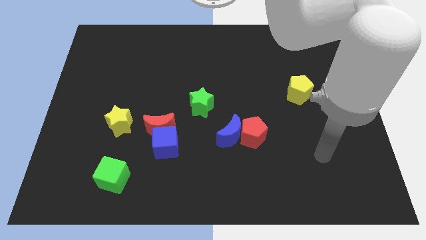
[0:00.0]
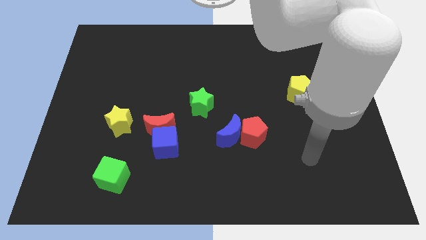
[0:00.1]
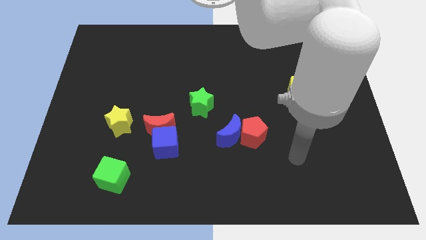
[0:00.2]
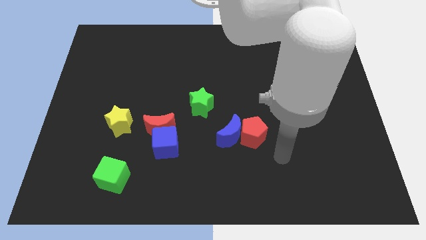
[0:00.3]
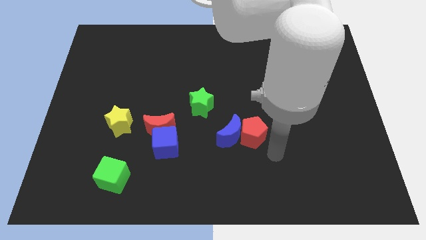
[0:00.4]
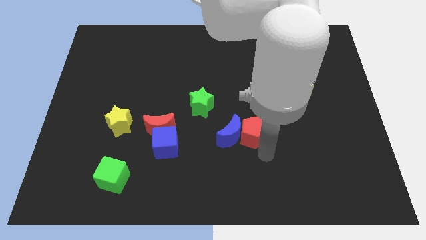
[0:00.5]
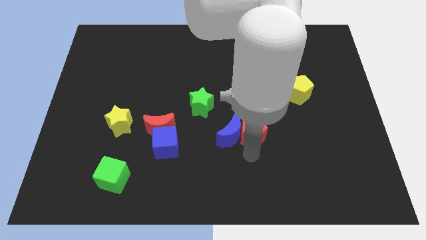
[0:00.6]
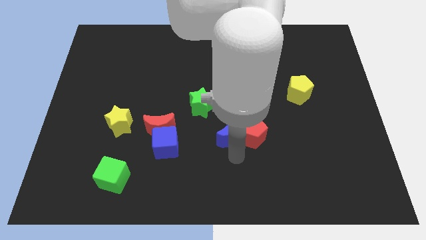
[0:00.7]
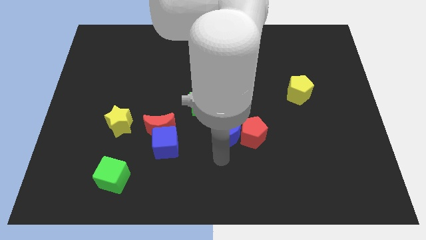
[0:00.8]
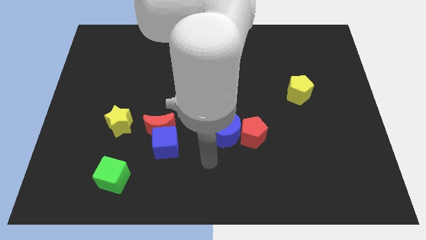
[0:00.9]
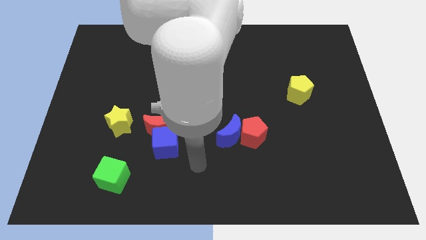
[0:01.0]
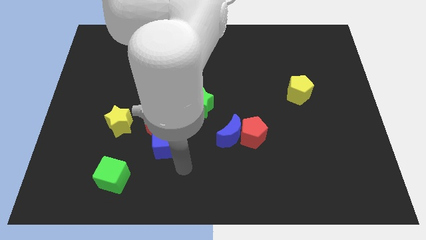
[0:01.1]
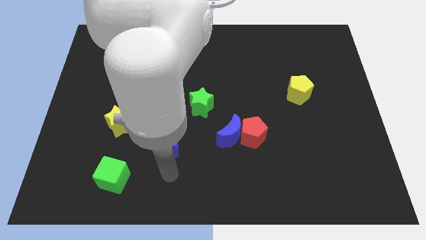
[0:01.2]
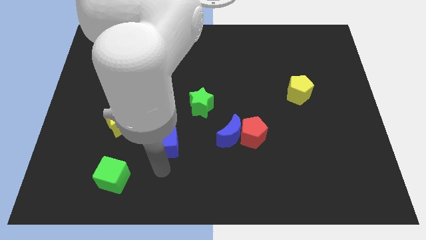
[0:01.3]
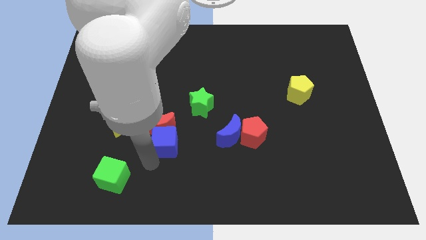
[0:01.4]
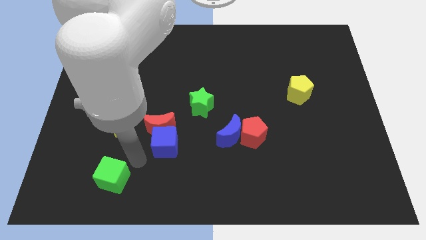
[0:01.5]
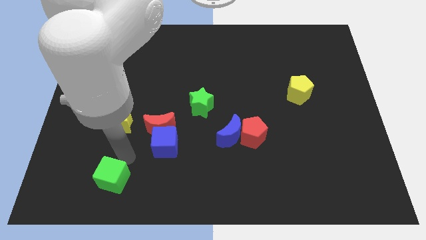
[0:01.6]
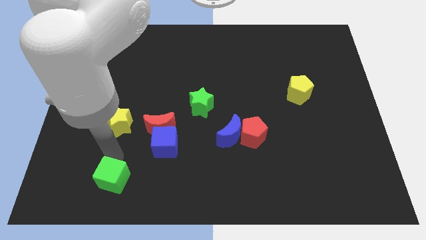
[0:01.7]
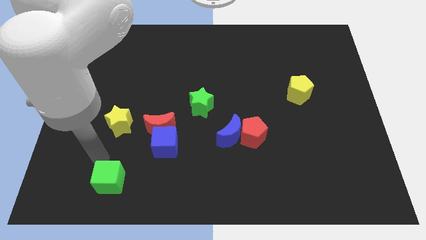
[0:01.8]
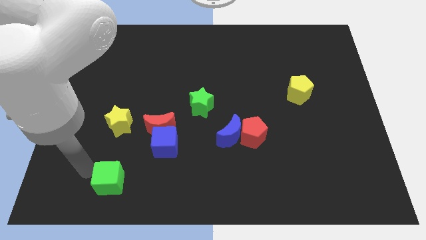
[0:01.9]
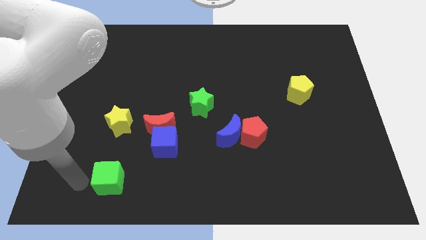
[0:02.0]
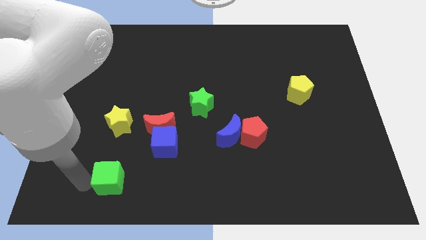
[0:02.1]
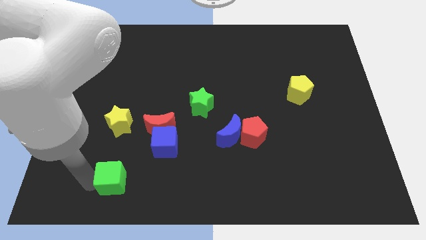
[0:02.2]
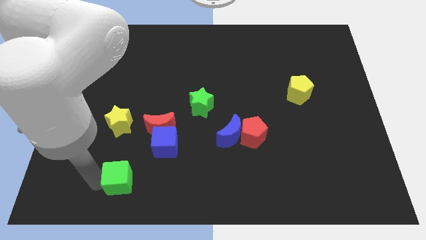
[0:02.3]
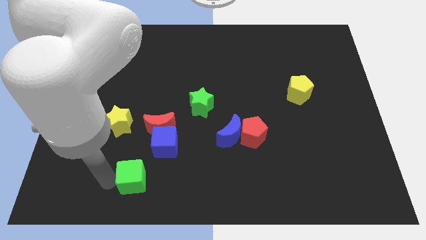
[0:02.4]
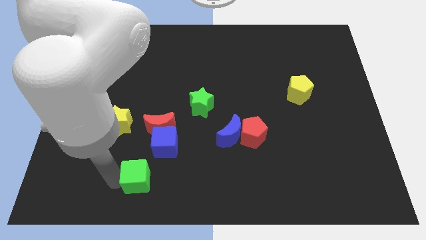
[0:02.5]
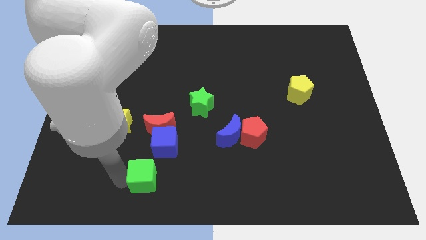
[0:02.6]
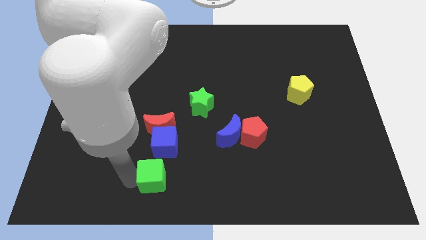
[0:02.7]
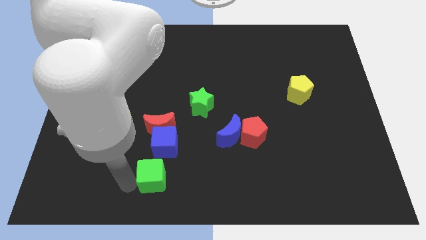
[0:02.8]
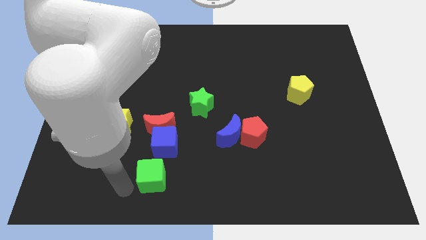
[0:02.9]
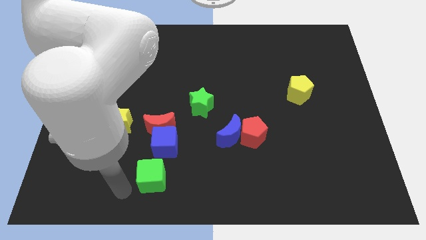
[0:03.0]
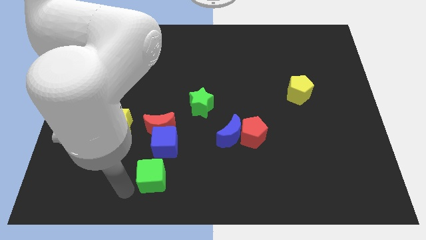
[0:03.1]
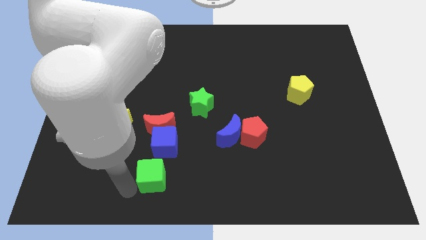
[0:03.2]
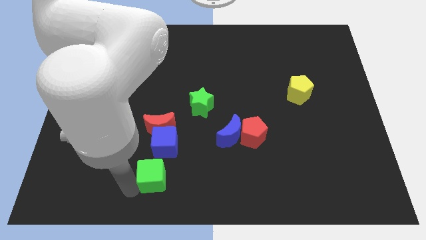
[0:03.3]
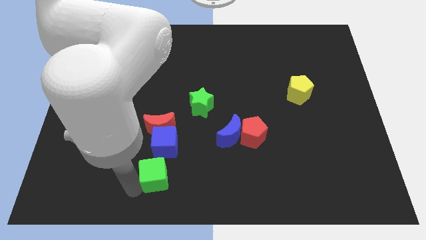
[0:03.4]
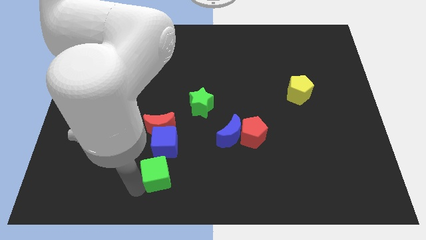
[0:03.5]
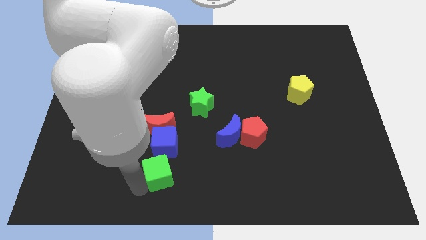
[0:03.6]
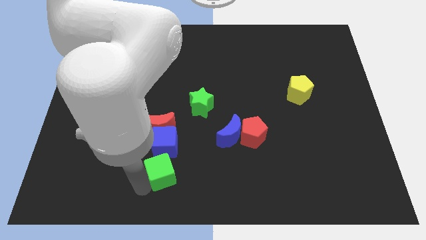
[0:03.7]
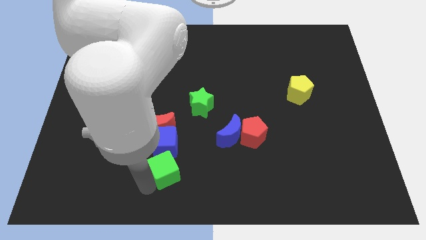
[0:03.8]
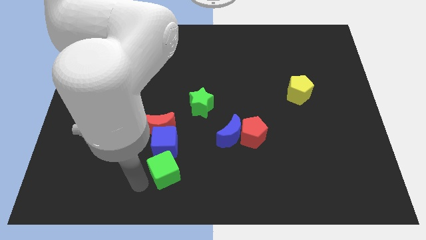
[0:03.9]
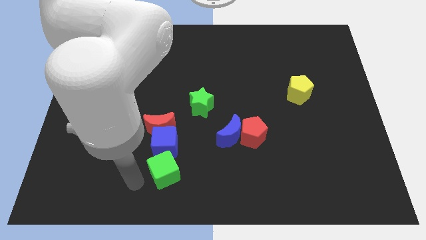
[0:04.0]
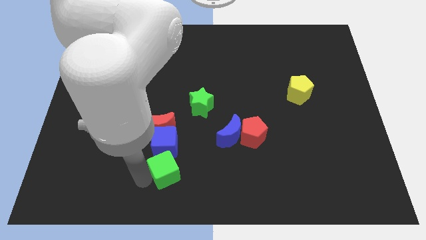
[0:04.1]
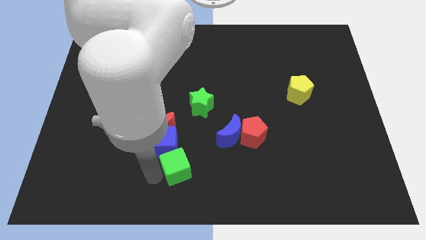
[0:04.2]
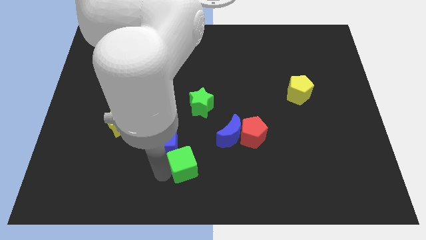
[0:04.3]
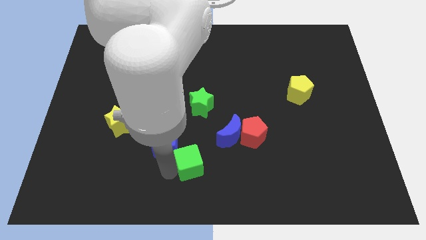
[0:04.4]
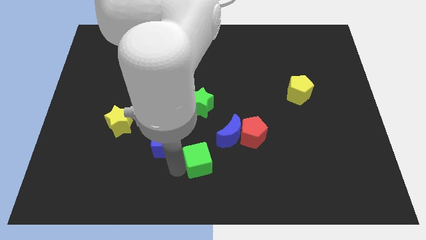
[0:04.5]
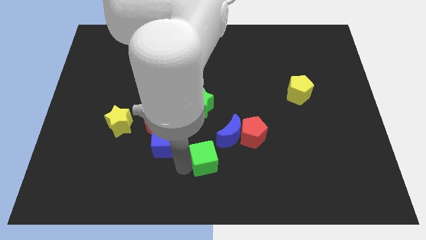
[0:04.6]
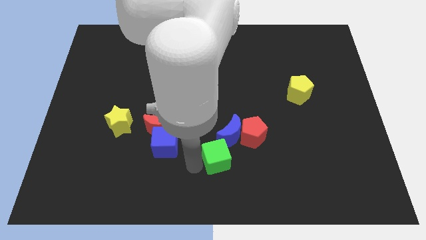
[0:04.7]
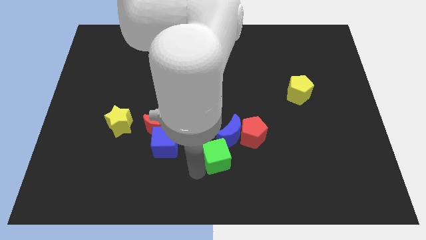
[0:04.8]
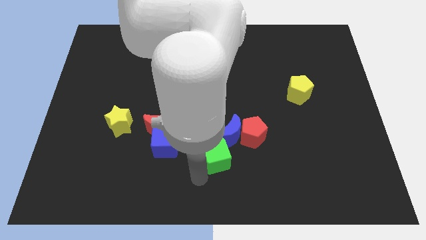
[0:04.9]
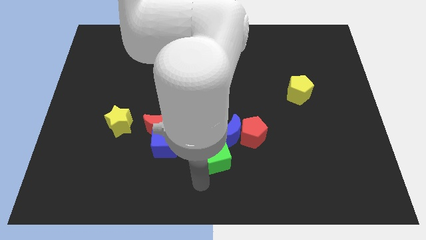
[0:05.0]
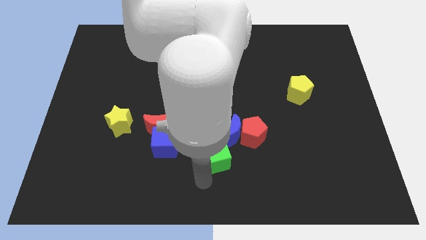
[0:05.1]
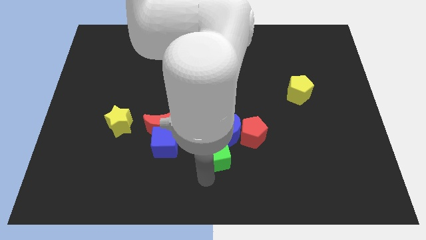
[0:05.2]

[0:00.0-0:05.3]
slide the green cube close to the blue moon

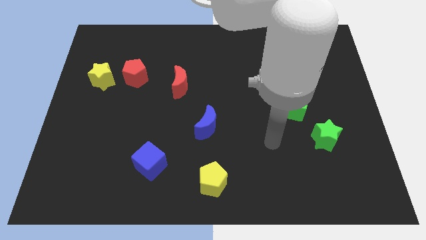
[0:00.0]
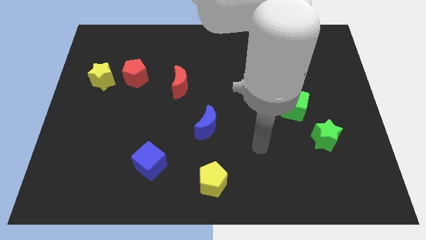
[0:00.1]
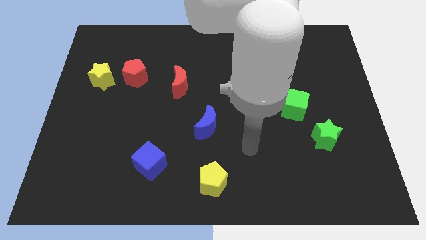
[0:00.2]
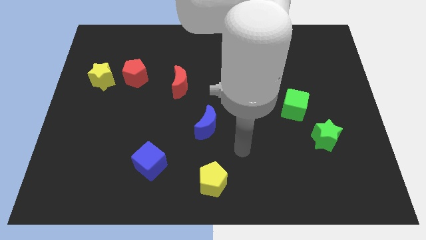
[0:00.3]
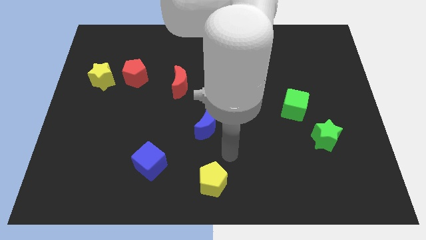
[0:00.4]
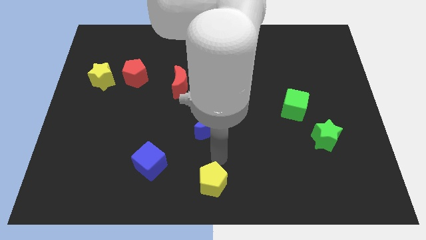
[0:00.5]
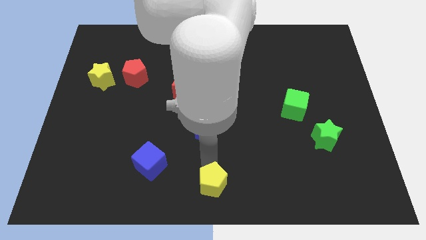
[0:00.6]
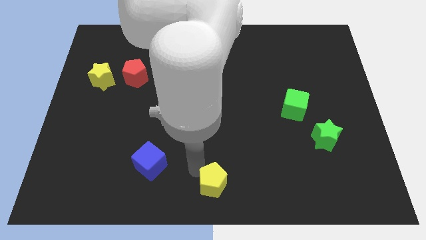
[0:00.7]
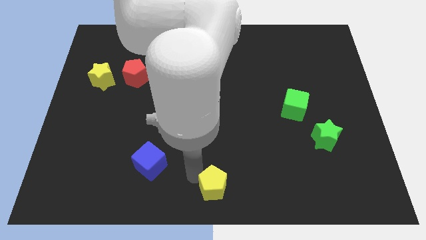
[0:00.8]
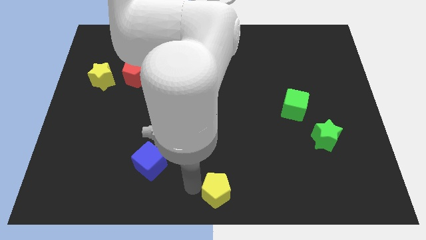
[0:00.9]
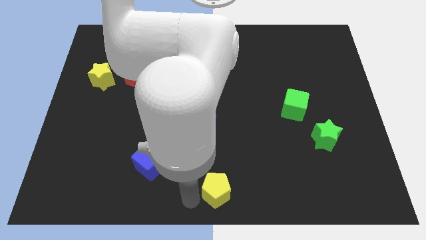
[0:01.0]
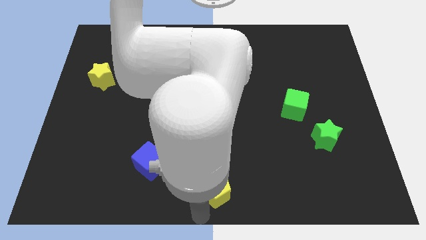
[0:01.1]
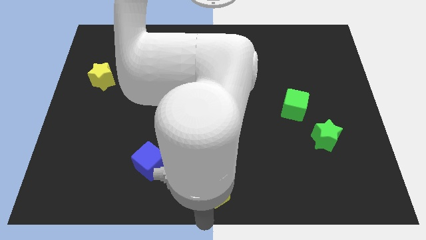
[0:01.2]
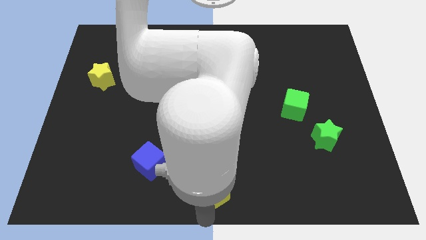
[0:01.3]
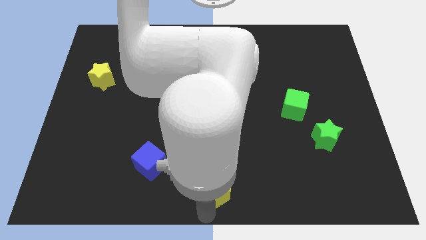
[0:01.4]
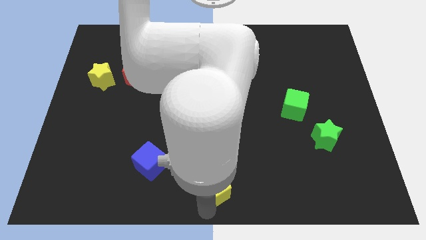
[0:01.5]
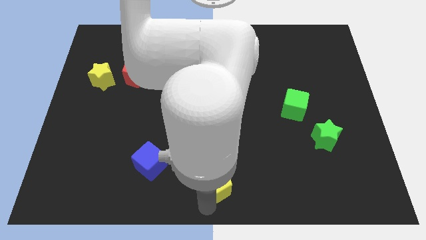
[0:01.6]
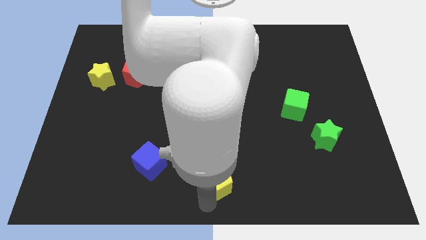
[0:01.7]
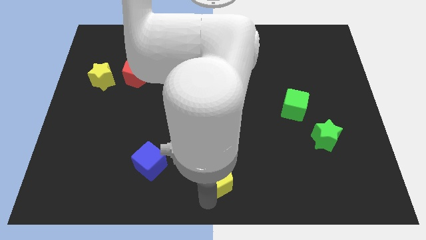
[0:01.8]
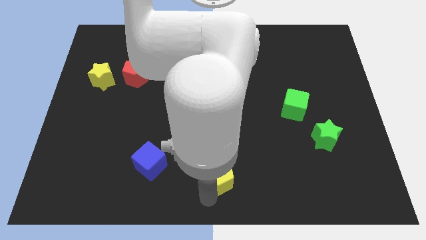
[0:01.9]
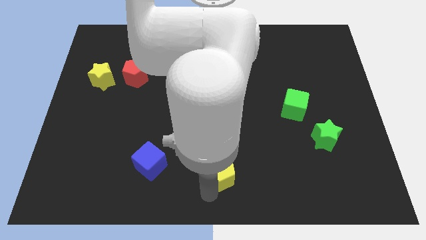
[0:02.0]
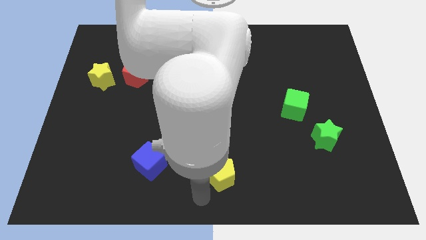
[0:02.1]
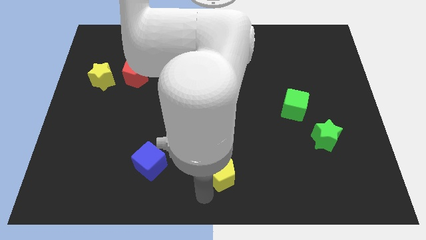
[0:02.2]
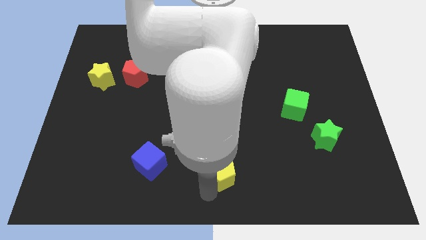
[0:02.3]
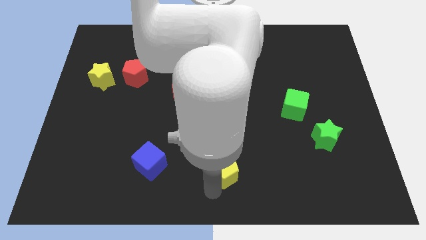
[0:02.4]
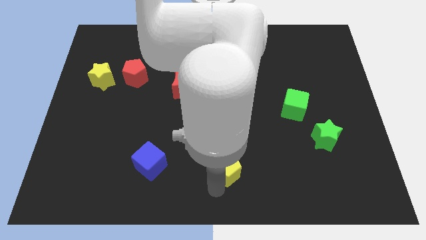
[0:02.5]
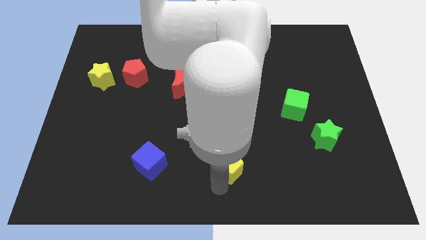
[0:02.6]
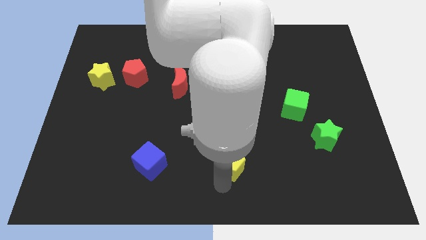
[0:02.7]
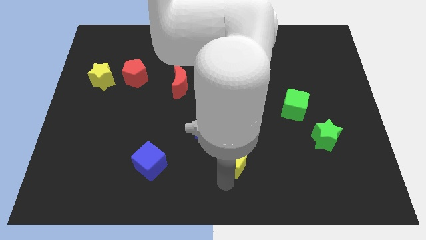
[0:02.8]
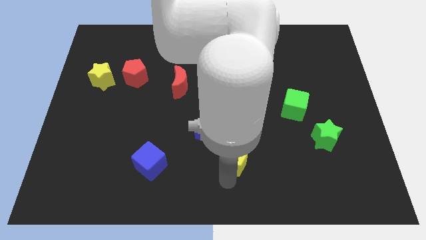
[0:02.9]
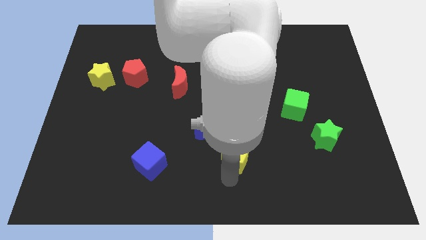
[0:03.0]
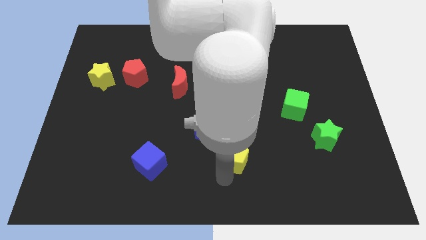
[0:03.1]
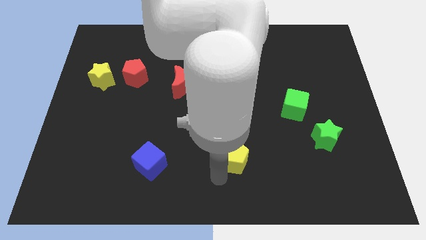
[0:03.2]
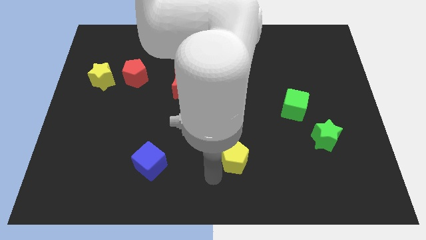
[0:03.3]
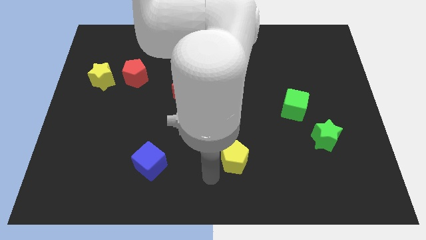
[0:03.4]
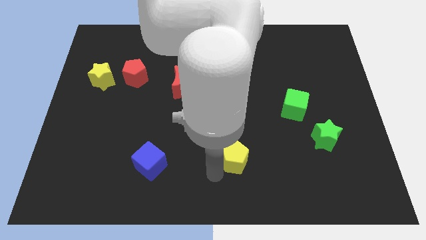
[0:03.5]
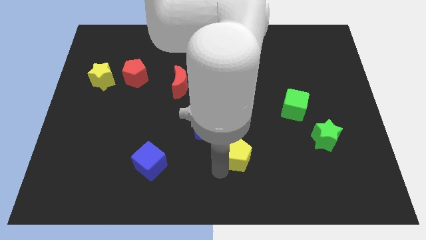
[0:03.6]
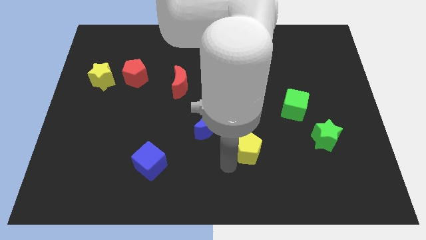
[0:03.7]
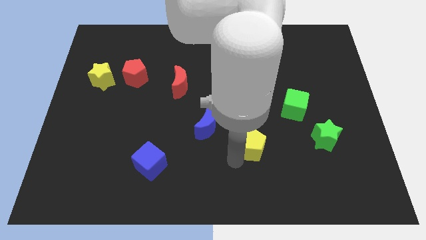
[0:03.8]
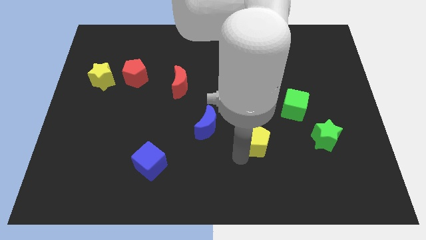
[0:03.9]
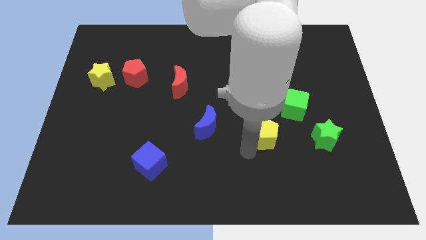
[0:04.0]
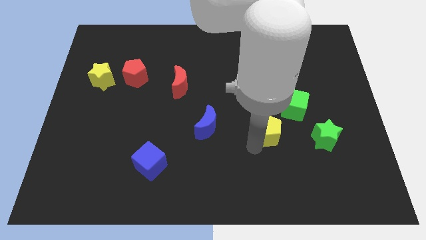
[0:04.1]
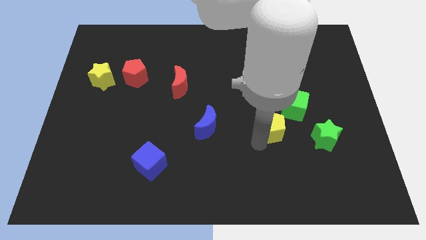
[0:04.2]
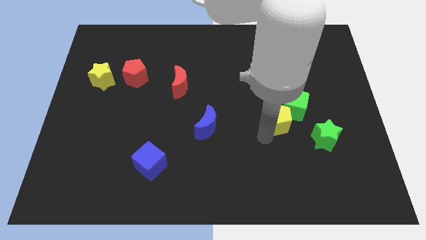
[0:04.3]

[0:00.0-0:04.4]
slide the yellow pentagon close to the green cube
